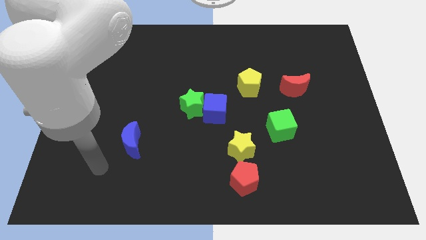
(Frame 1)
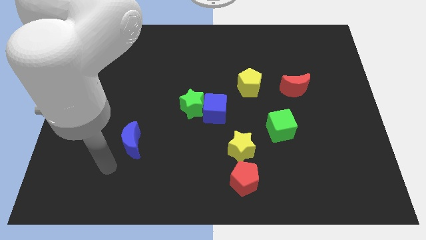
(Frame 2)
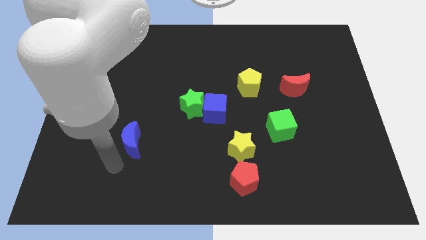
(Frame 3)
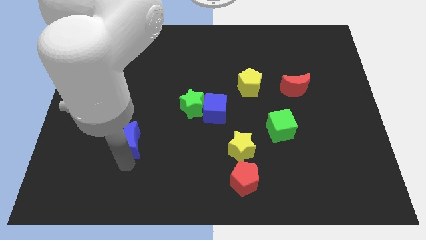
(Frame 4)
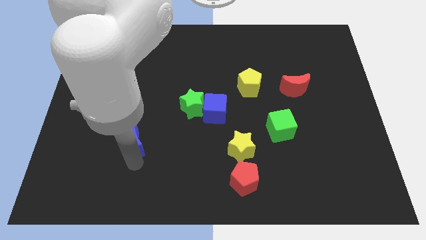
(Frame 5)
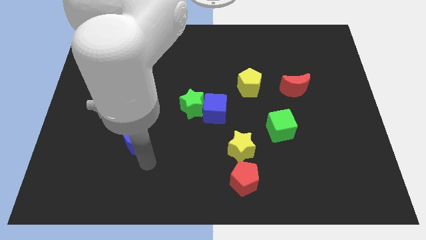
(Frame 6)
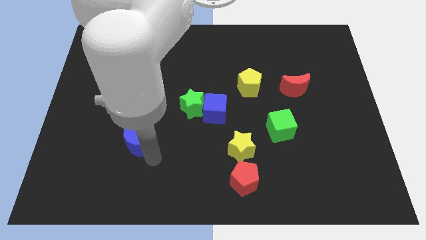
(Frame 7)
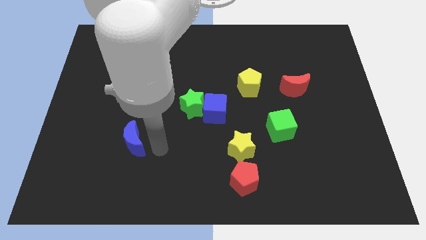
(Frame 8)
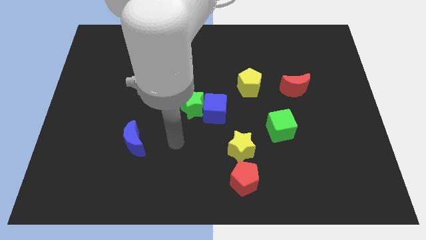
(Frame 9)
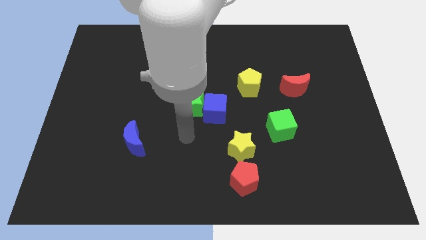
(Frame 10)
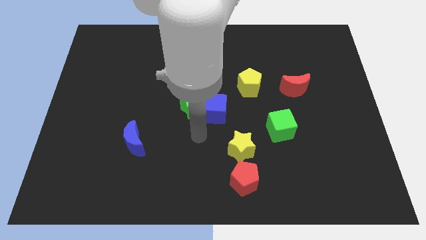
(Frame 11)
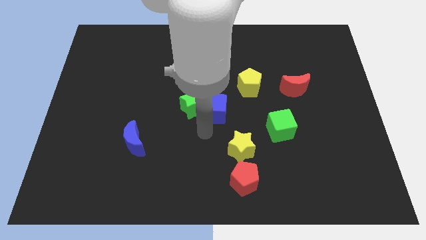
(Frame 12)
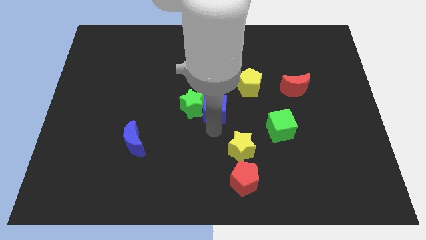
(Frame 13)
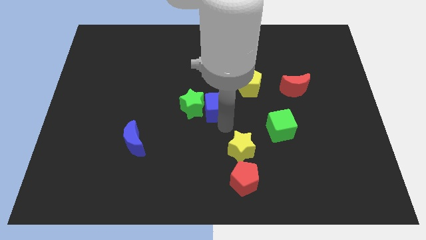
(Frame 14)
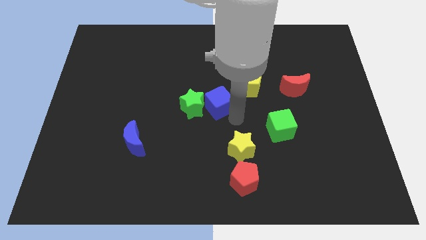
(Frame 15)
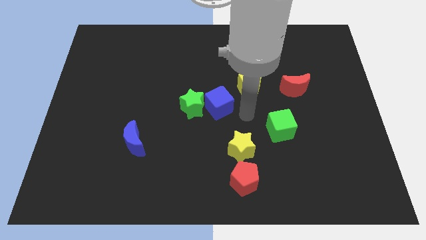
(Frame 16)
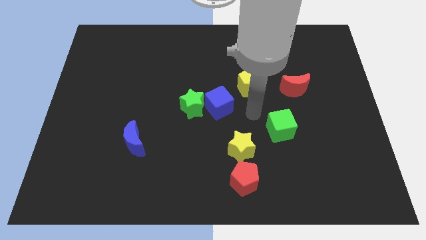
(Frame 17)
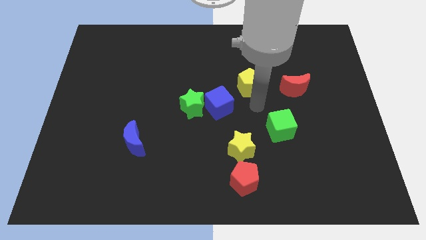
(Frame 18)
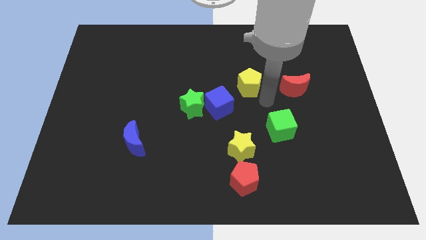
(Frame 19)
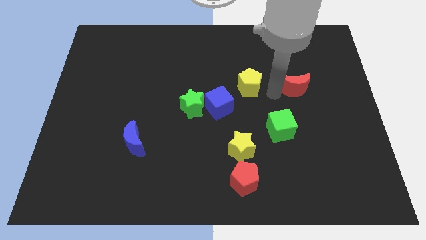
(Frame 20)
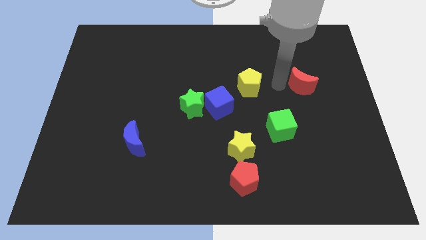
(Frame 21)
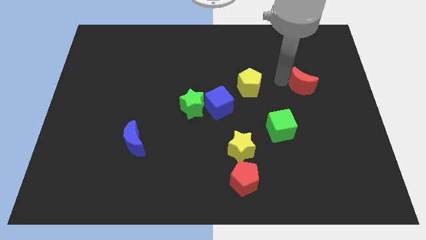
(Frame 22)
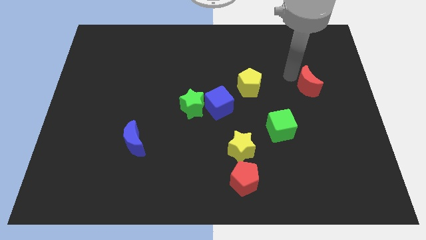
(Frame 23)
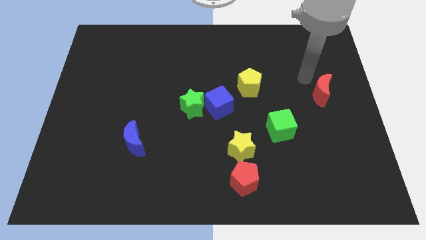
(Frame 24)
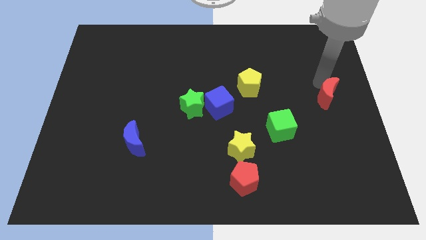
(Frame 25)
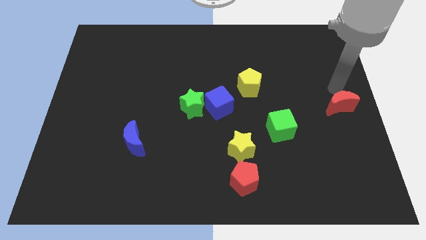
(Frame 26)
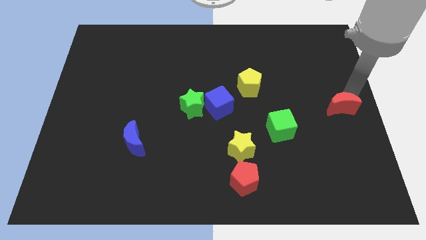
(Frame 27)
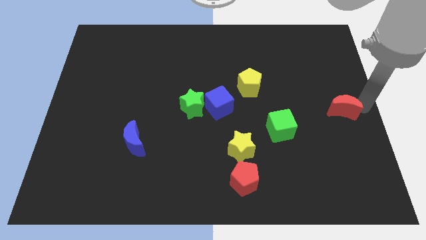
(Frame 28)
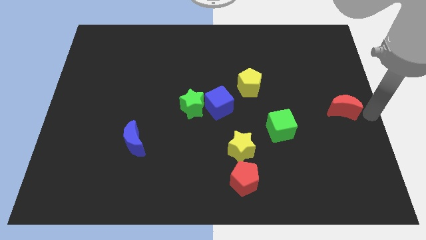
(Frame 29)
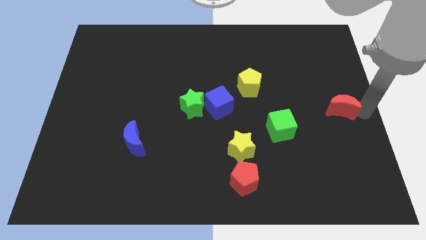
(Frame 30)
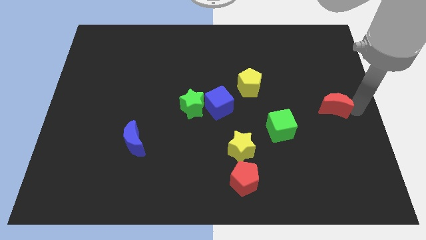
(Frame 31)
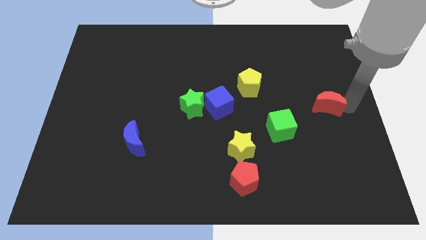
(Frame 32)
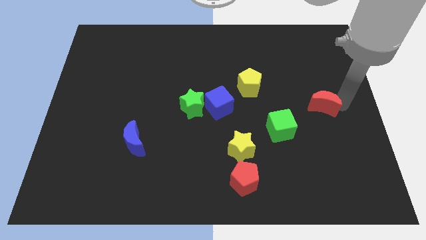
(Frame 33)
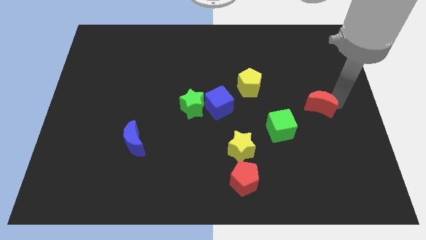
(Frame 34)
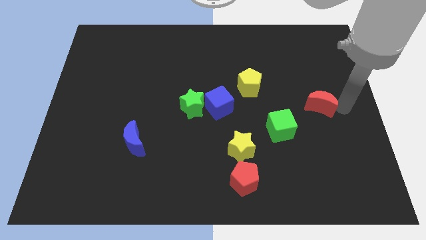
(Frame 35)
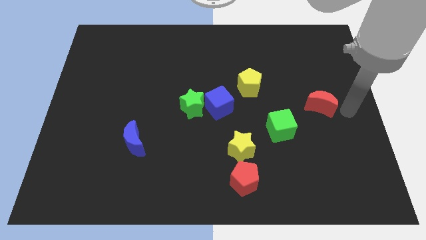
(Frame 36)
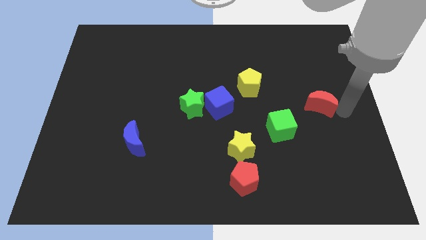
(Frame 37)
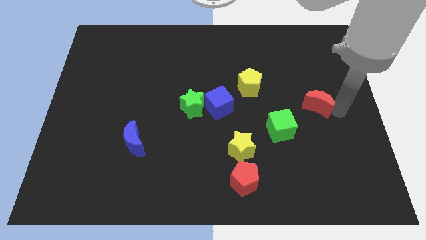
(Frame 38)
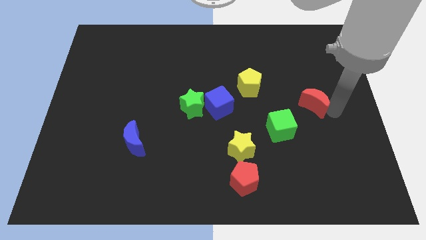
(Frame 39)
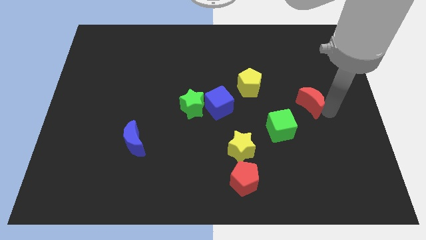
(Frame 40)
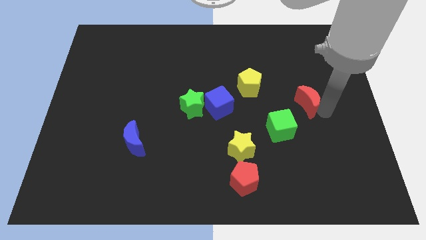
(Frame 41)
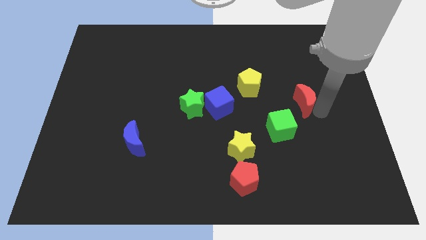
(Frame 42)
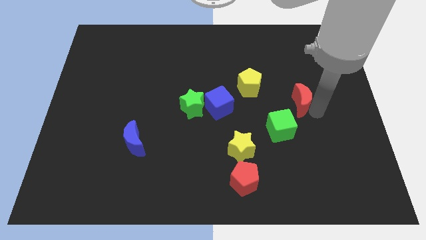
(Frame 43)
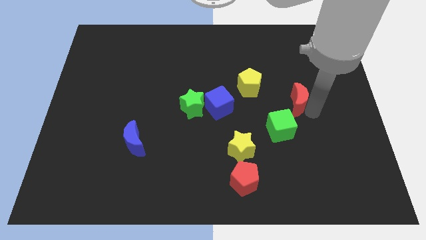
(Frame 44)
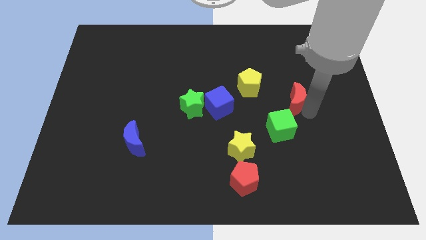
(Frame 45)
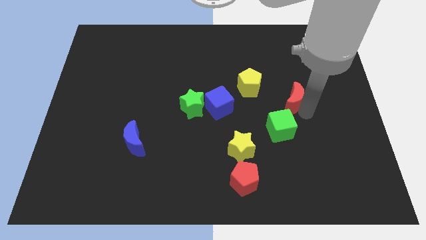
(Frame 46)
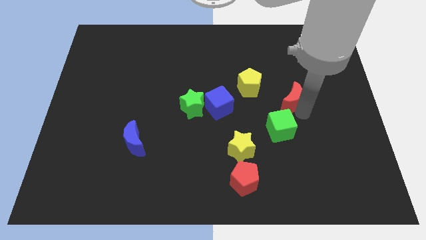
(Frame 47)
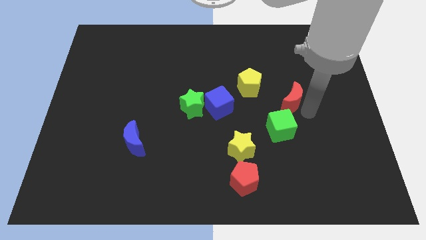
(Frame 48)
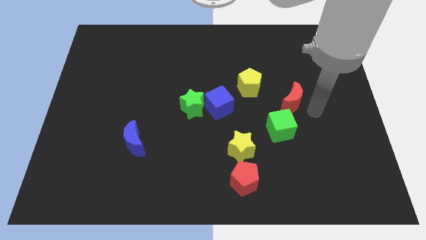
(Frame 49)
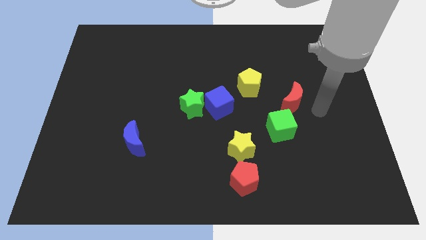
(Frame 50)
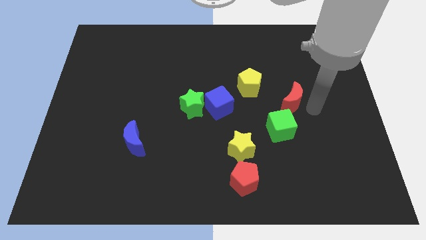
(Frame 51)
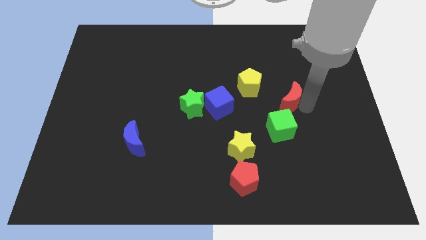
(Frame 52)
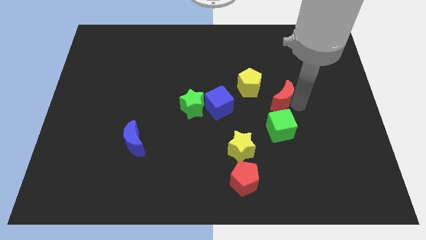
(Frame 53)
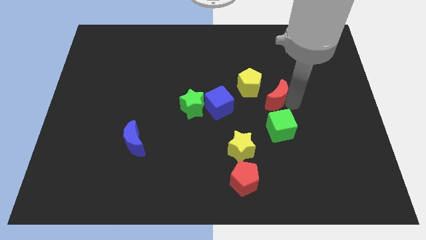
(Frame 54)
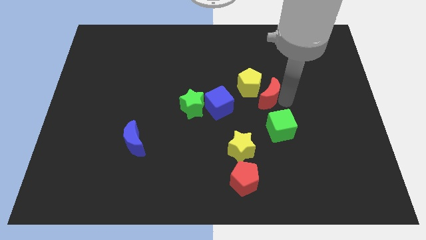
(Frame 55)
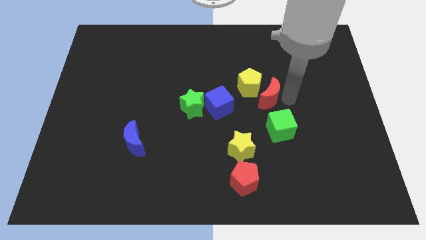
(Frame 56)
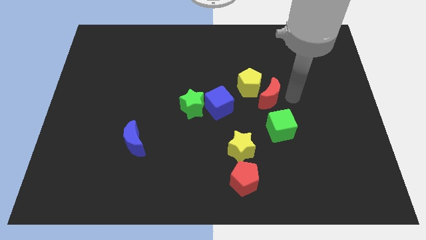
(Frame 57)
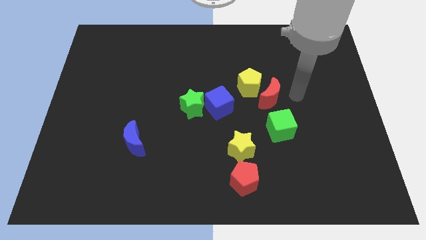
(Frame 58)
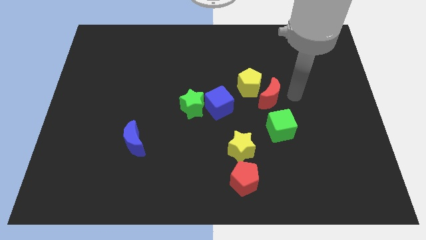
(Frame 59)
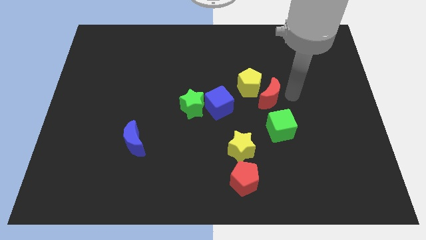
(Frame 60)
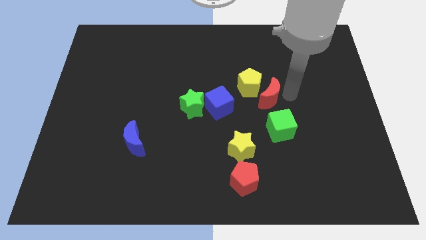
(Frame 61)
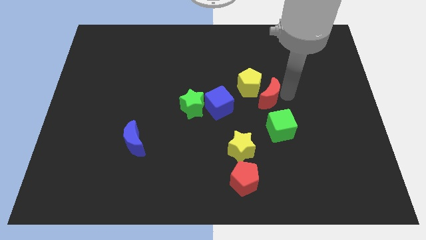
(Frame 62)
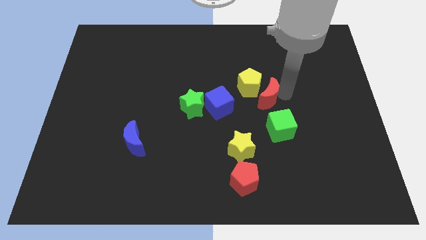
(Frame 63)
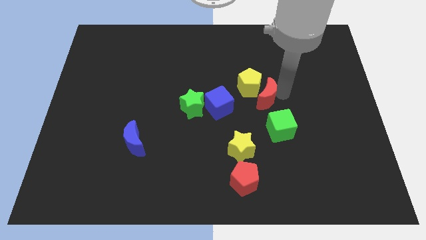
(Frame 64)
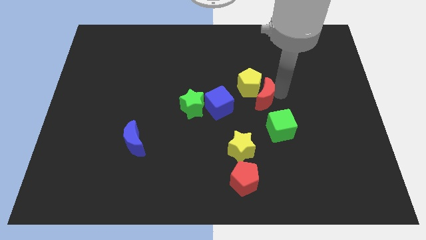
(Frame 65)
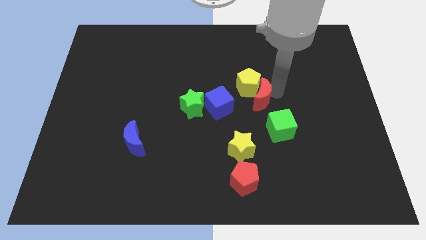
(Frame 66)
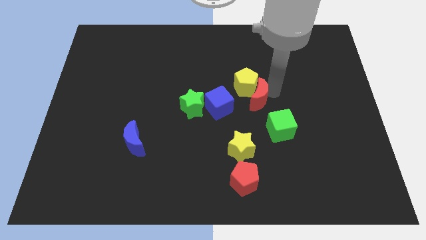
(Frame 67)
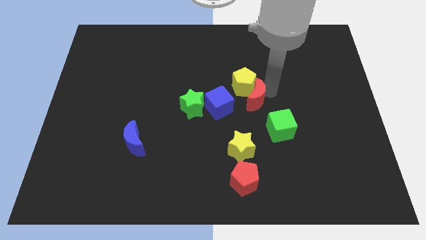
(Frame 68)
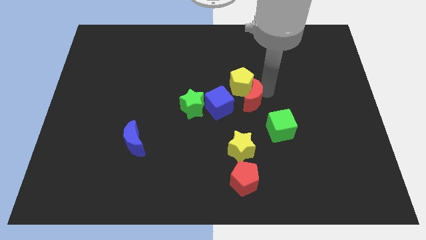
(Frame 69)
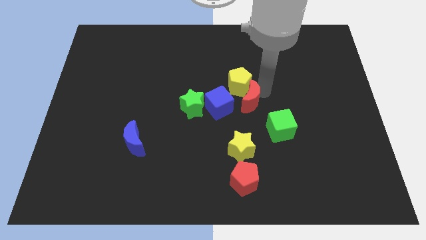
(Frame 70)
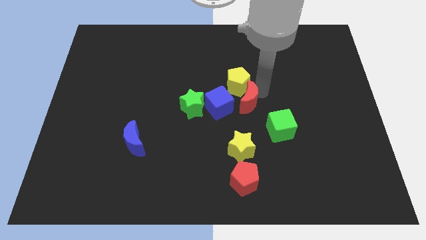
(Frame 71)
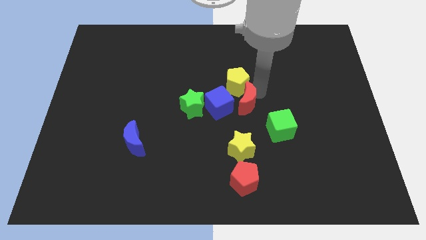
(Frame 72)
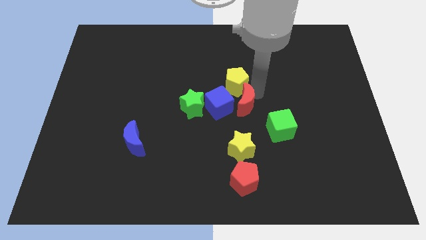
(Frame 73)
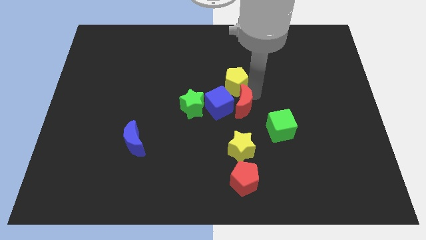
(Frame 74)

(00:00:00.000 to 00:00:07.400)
push the red moon next to the blue cube

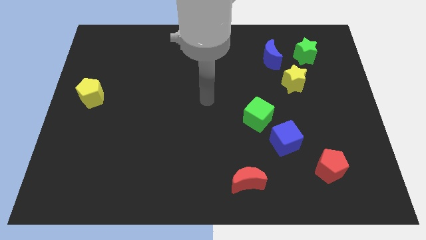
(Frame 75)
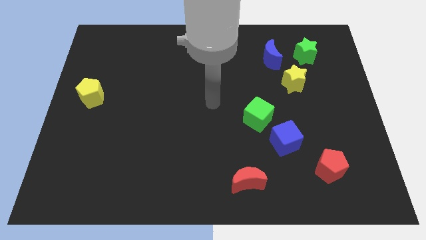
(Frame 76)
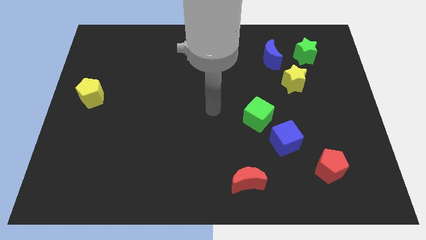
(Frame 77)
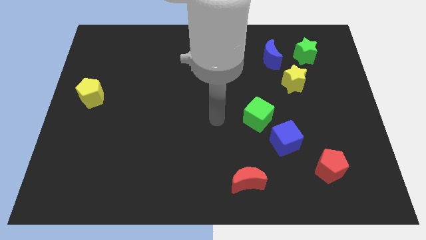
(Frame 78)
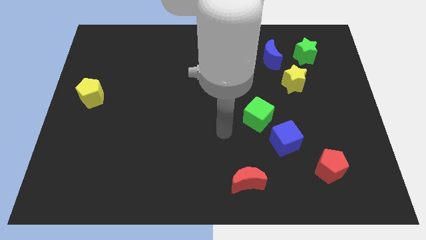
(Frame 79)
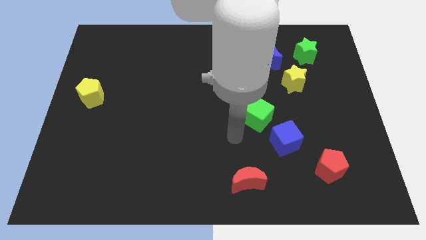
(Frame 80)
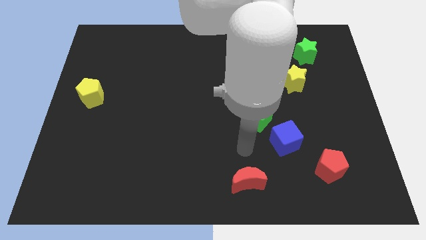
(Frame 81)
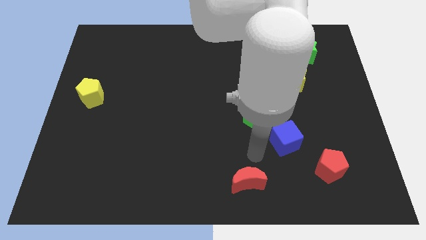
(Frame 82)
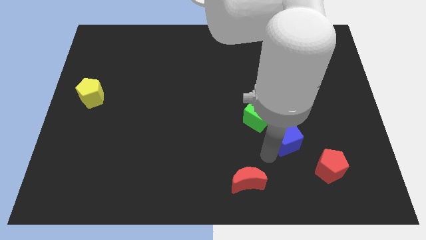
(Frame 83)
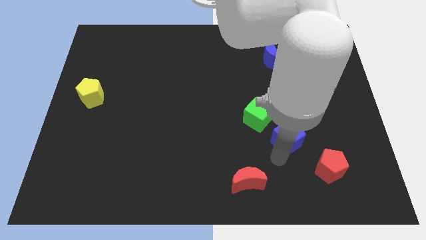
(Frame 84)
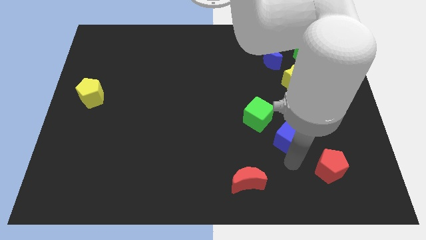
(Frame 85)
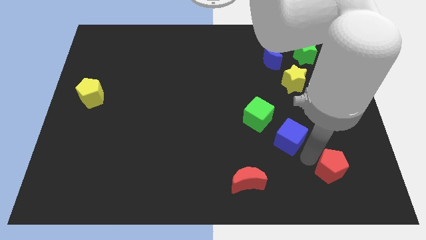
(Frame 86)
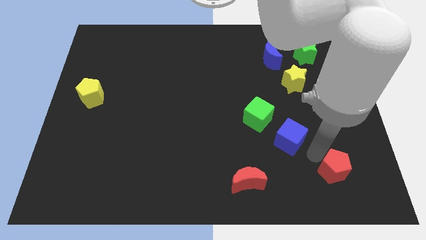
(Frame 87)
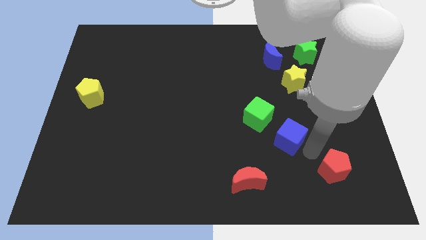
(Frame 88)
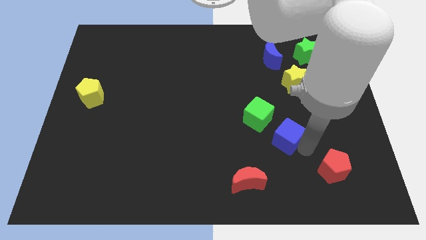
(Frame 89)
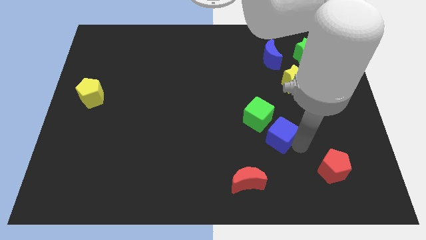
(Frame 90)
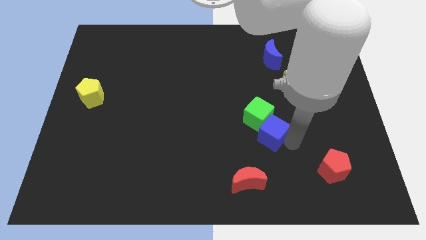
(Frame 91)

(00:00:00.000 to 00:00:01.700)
put the blue cube towards the green cube
